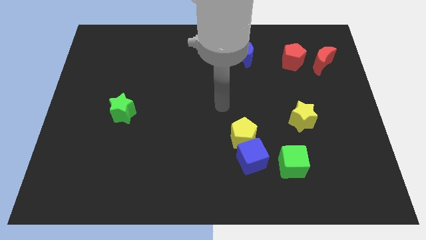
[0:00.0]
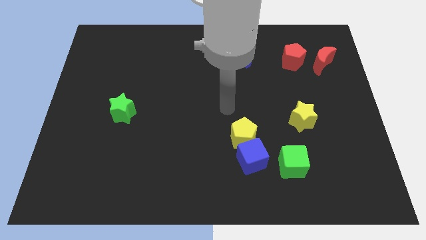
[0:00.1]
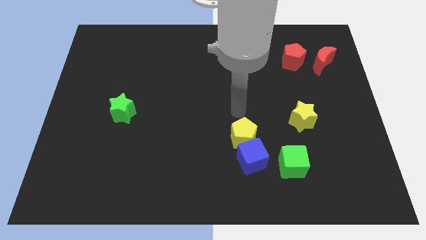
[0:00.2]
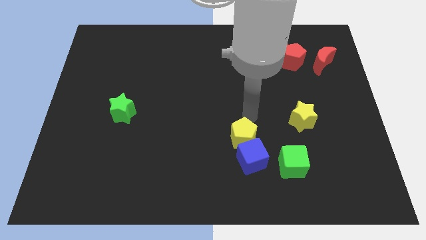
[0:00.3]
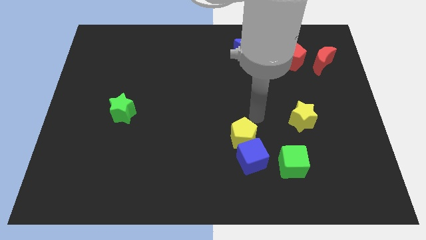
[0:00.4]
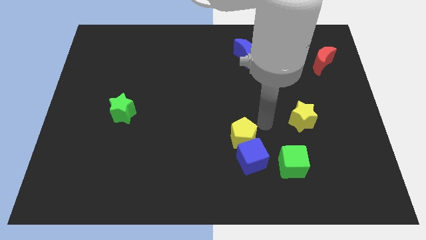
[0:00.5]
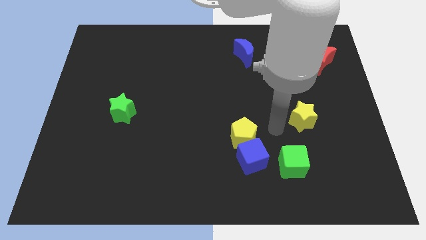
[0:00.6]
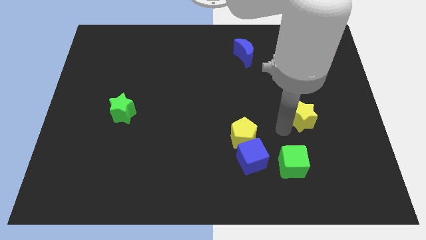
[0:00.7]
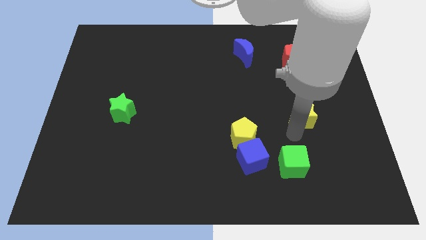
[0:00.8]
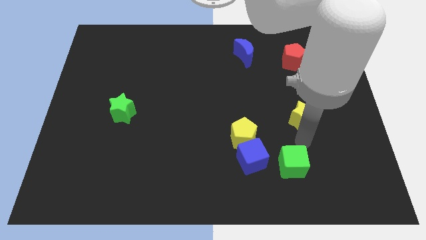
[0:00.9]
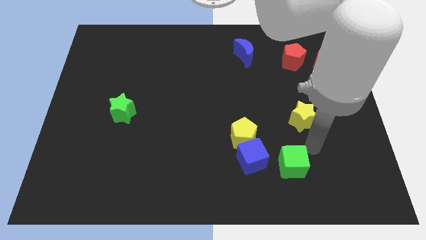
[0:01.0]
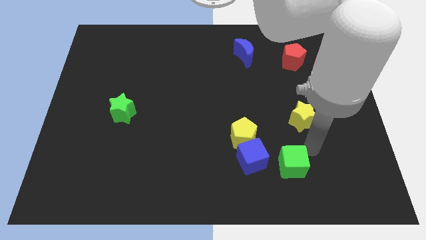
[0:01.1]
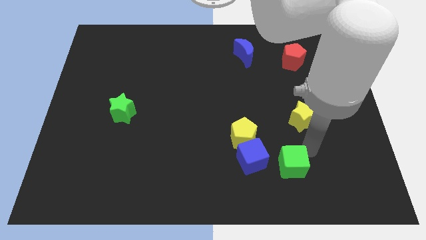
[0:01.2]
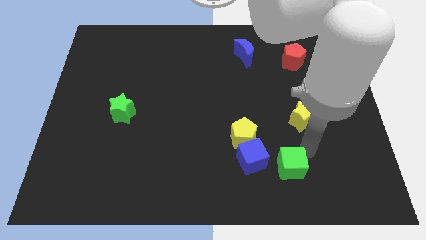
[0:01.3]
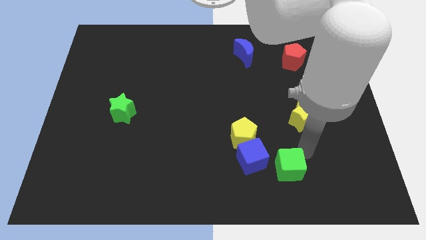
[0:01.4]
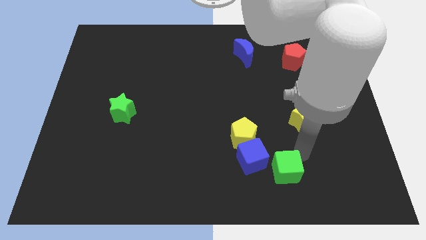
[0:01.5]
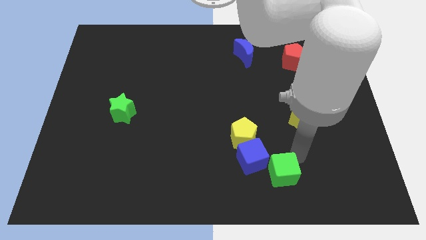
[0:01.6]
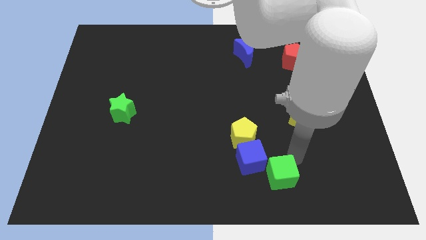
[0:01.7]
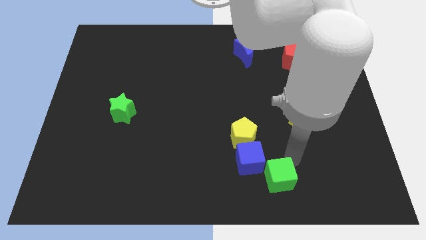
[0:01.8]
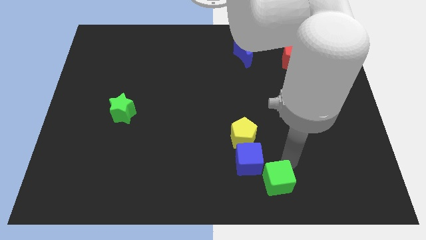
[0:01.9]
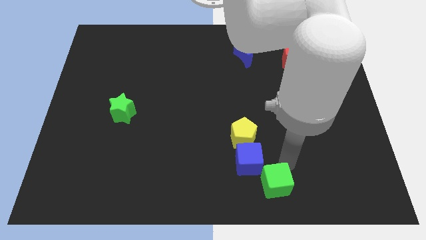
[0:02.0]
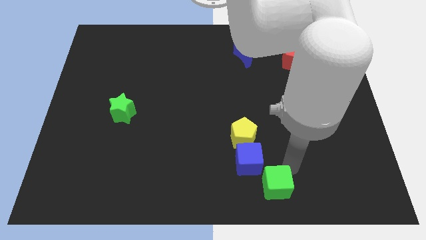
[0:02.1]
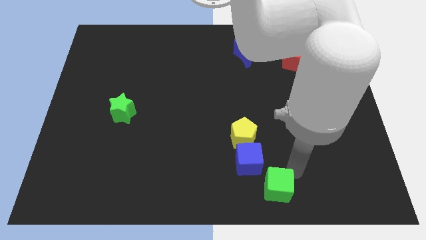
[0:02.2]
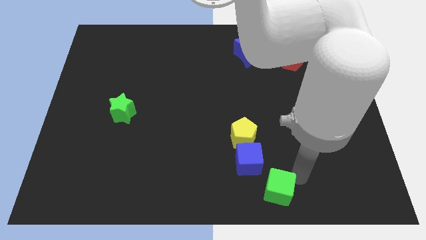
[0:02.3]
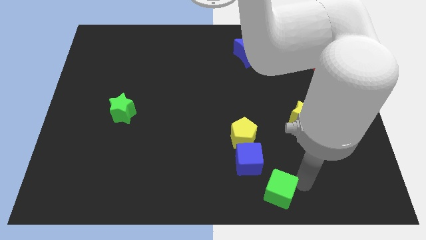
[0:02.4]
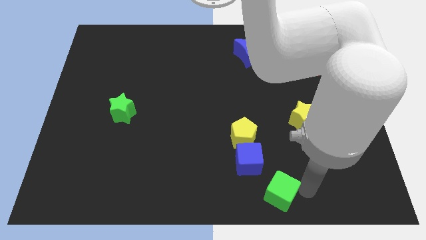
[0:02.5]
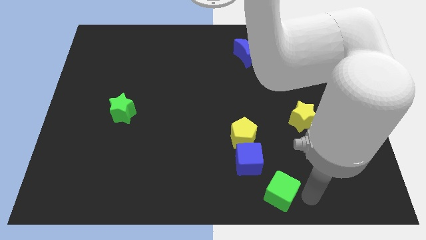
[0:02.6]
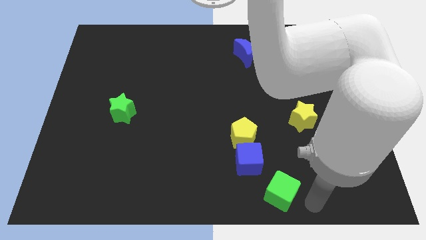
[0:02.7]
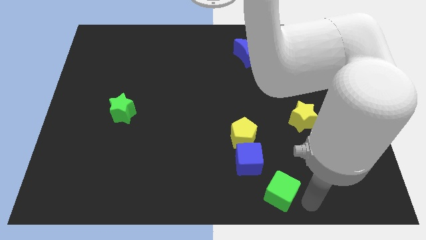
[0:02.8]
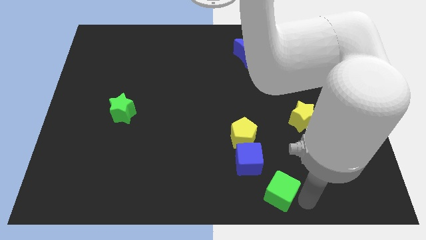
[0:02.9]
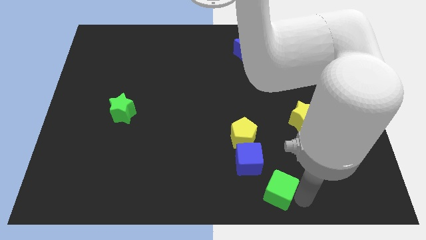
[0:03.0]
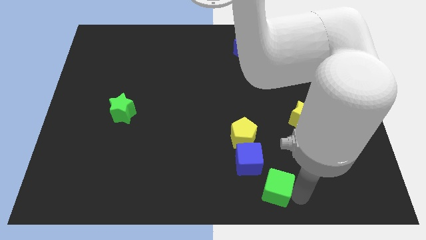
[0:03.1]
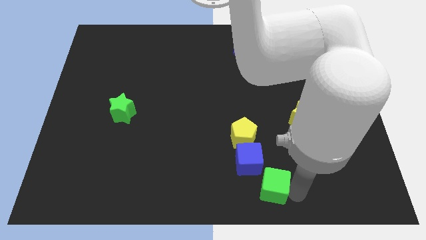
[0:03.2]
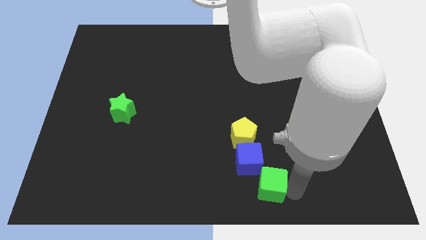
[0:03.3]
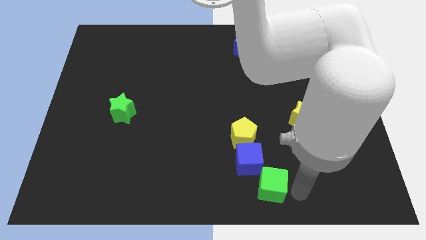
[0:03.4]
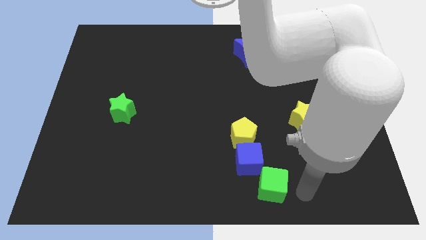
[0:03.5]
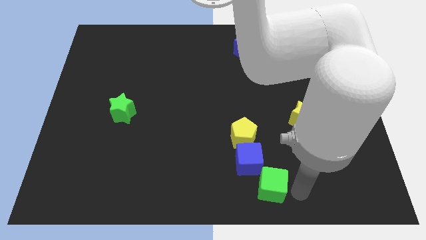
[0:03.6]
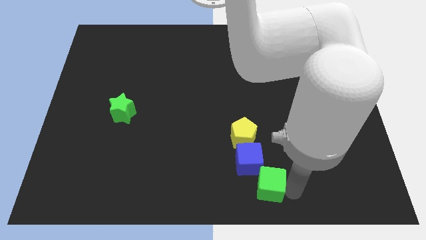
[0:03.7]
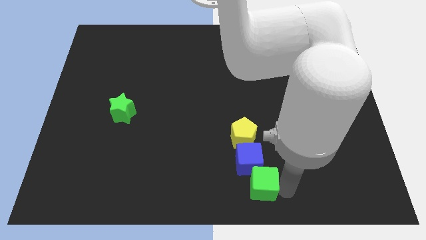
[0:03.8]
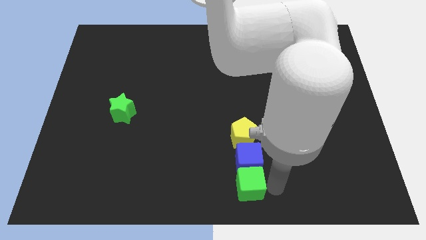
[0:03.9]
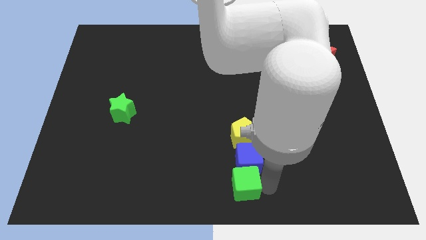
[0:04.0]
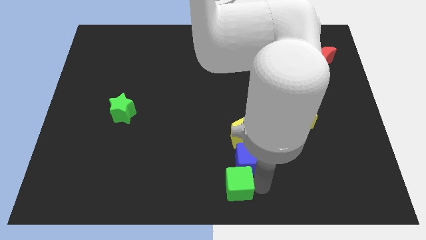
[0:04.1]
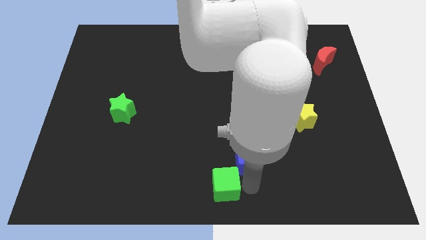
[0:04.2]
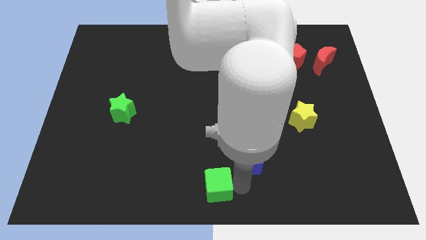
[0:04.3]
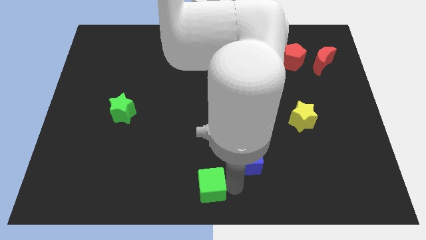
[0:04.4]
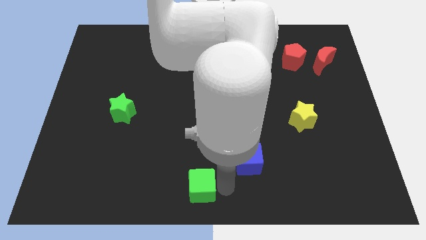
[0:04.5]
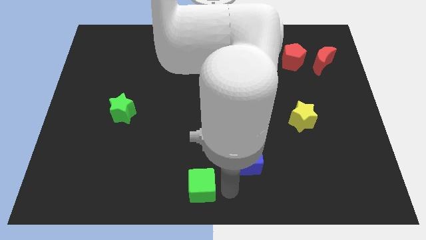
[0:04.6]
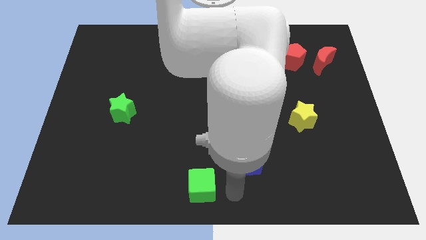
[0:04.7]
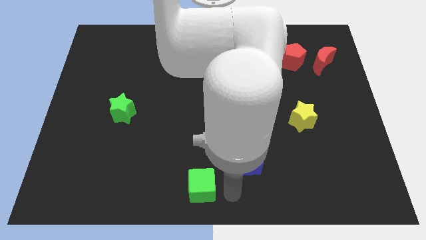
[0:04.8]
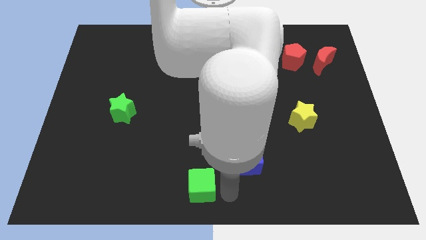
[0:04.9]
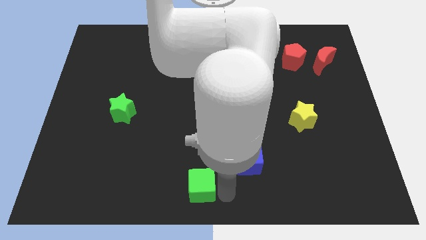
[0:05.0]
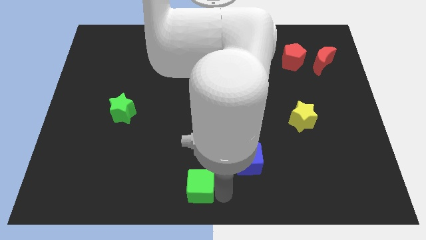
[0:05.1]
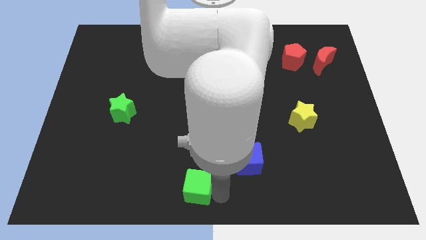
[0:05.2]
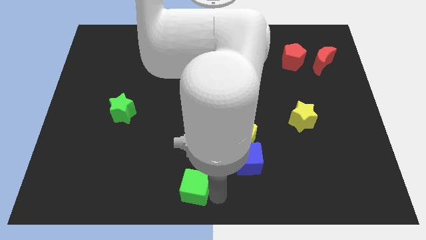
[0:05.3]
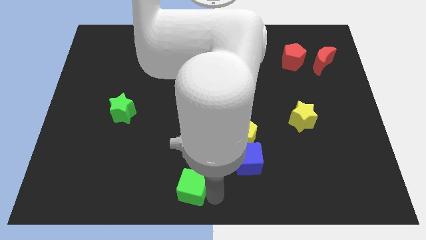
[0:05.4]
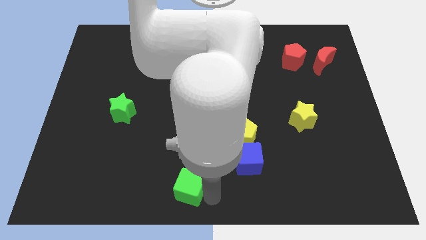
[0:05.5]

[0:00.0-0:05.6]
push the green cube left

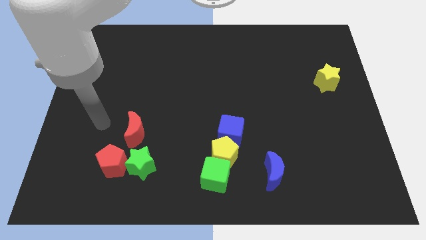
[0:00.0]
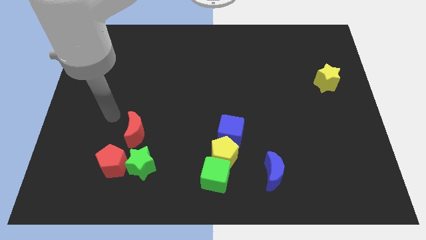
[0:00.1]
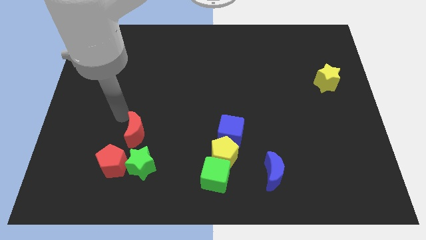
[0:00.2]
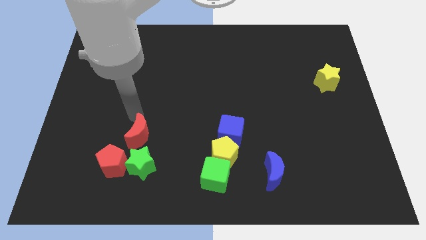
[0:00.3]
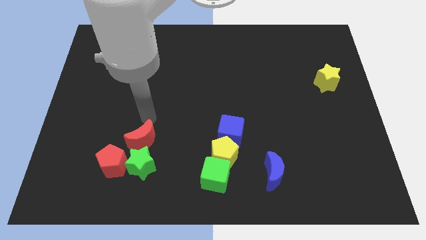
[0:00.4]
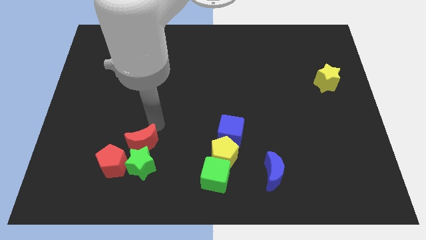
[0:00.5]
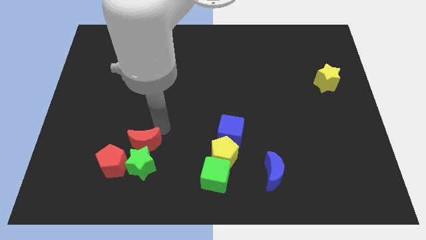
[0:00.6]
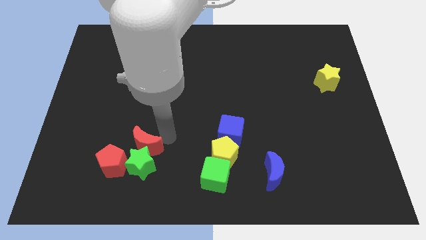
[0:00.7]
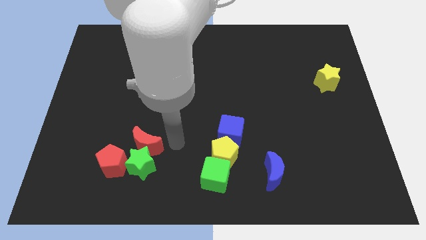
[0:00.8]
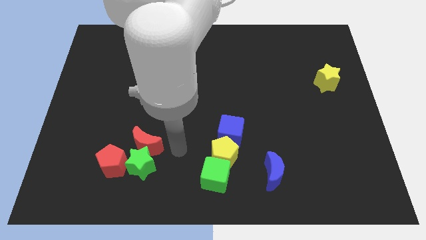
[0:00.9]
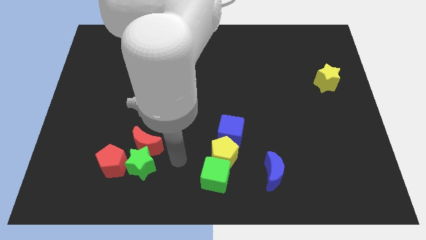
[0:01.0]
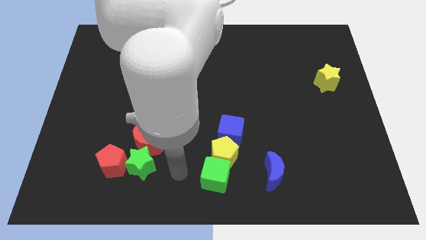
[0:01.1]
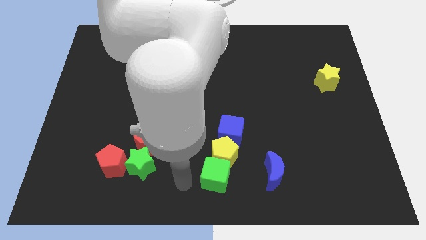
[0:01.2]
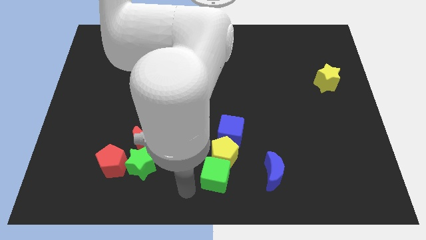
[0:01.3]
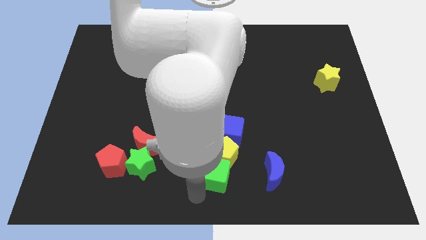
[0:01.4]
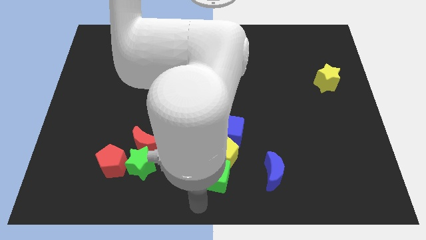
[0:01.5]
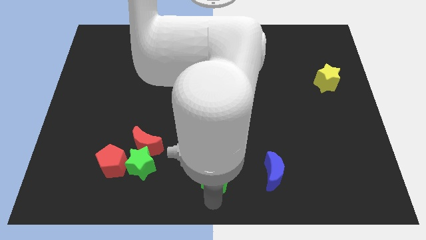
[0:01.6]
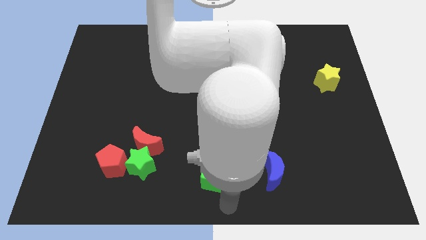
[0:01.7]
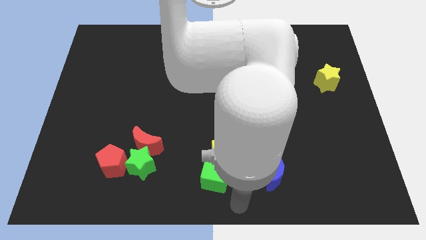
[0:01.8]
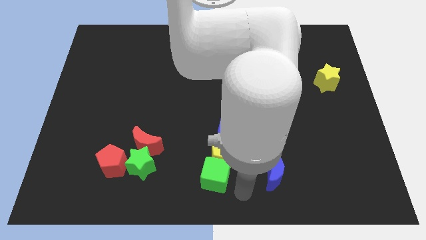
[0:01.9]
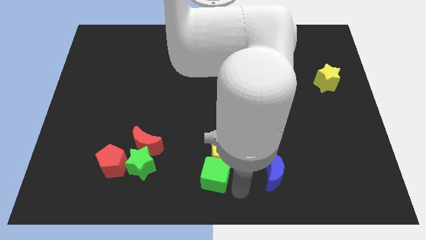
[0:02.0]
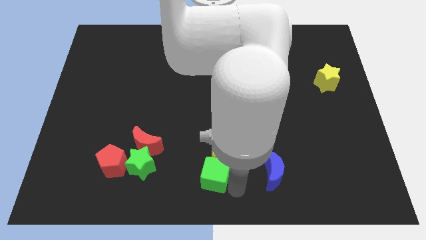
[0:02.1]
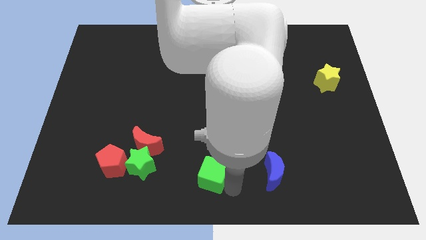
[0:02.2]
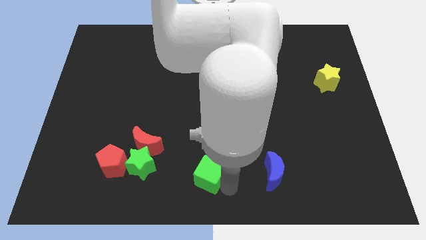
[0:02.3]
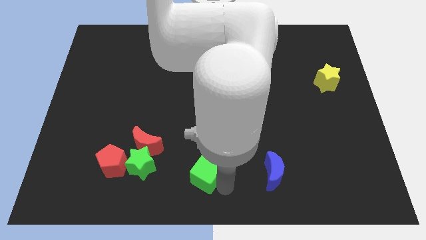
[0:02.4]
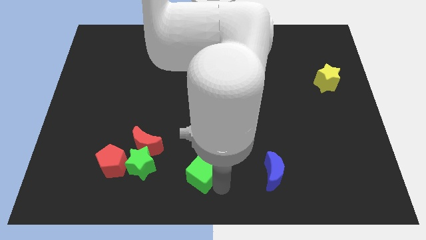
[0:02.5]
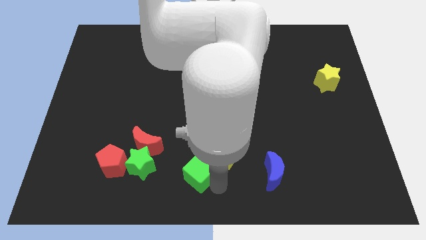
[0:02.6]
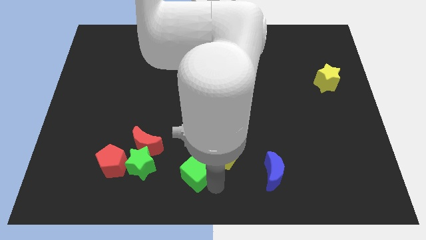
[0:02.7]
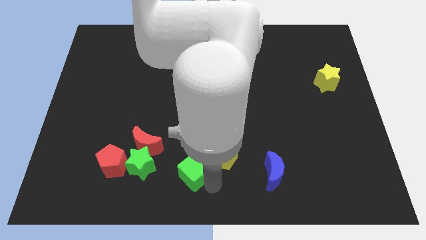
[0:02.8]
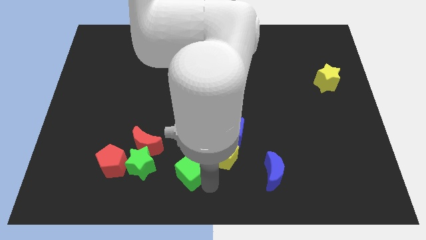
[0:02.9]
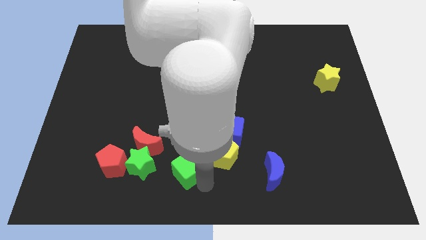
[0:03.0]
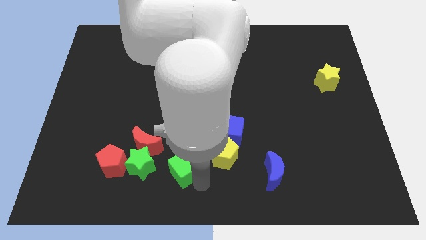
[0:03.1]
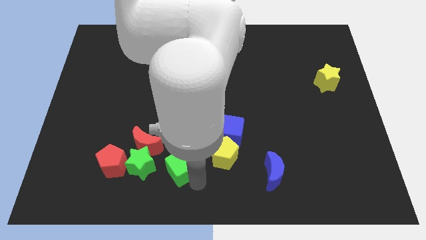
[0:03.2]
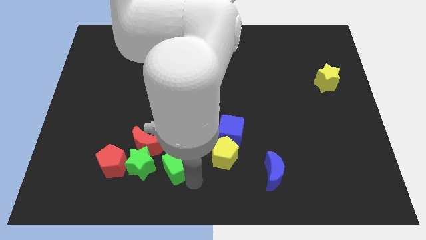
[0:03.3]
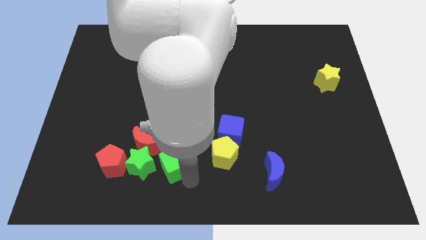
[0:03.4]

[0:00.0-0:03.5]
slightly push the green cube up and then left
